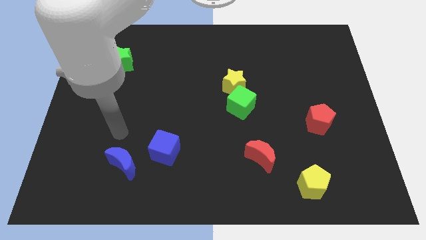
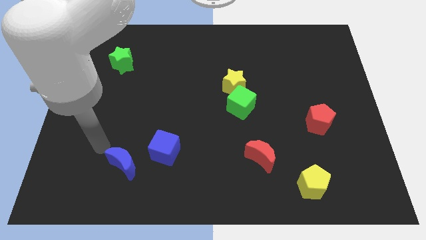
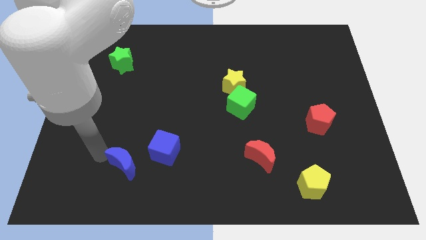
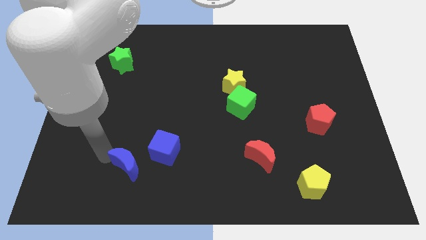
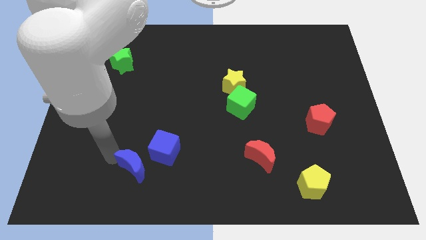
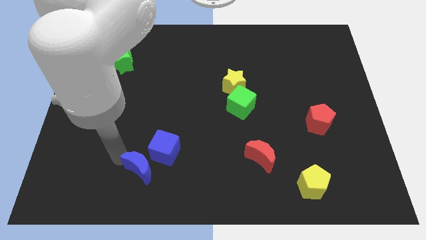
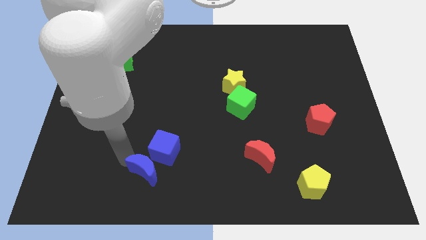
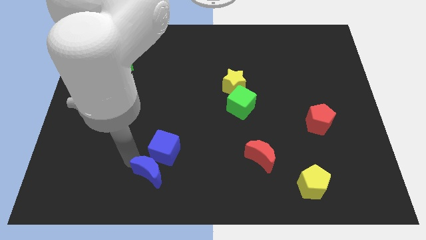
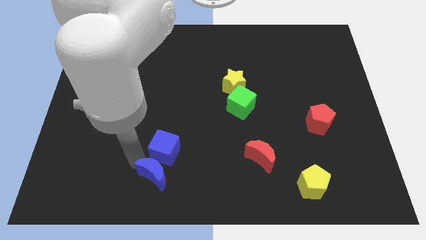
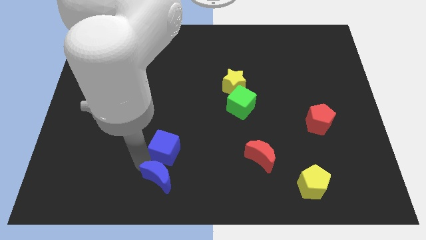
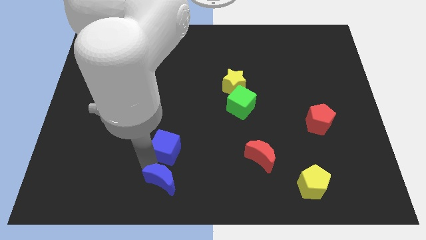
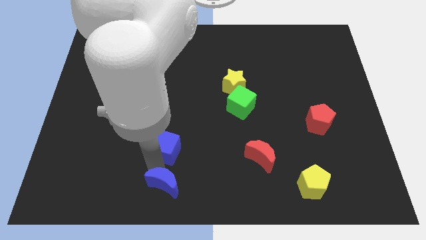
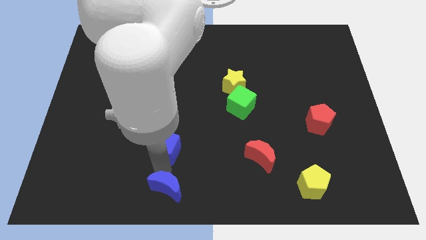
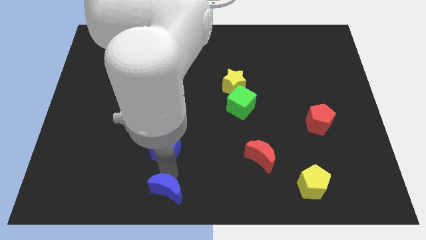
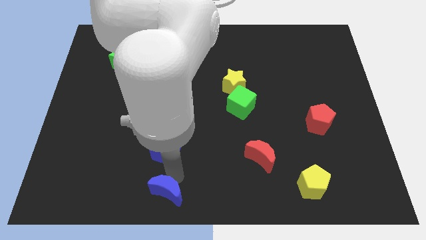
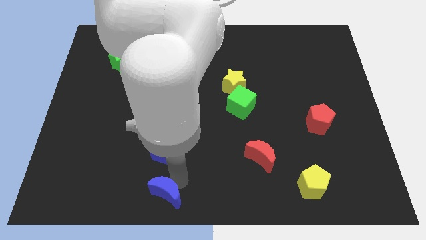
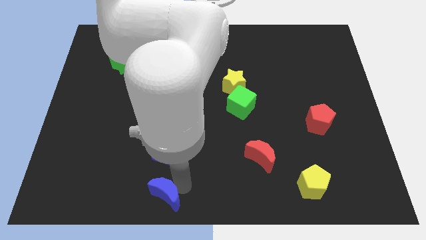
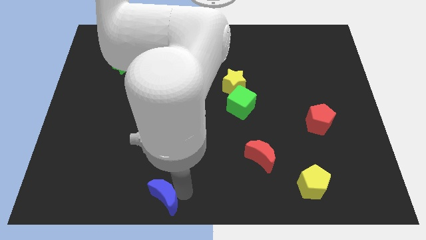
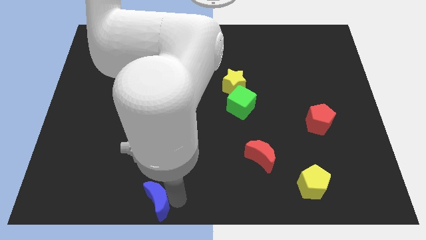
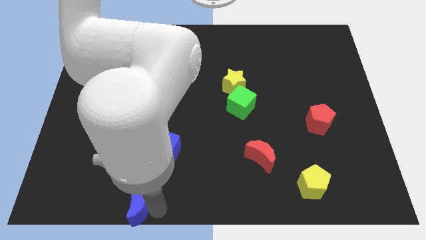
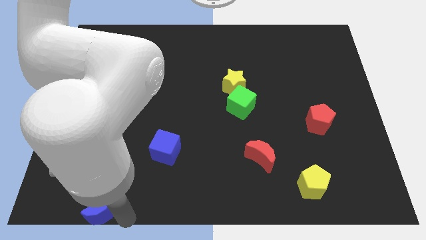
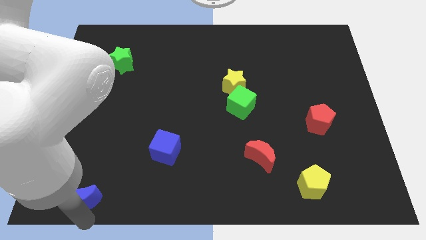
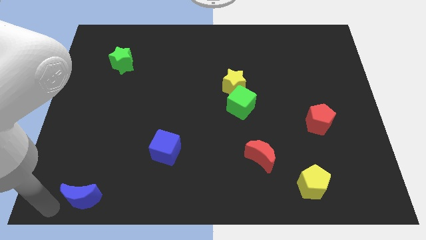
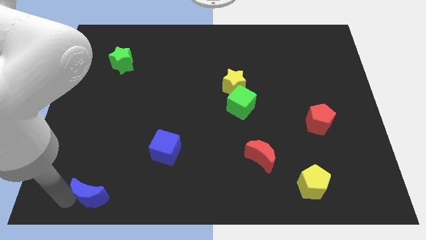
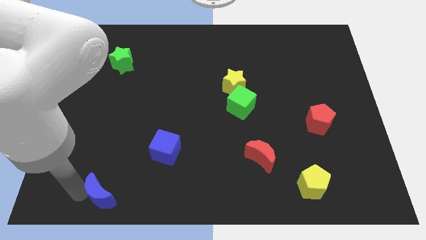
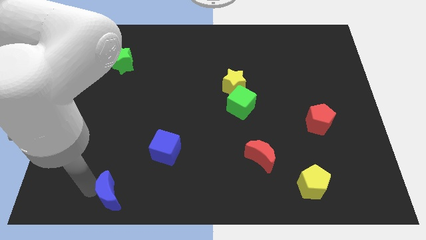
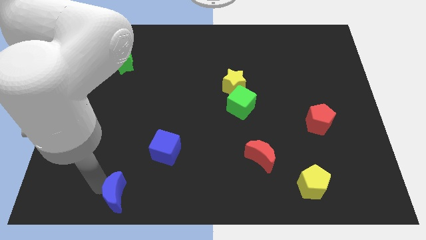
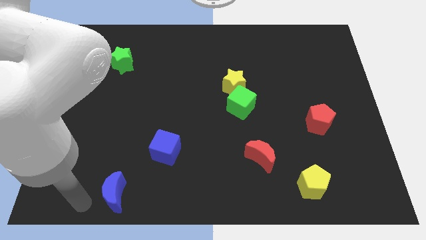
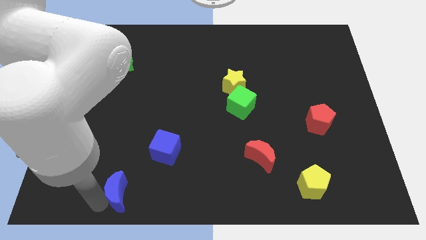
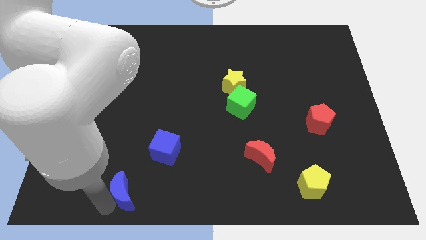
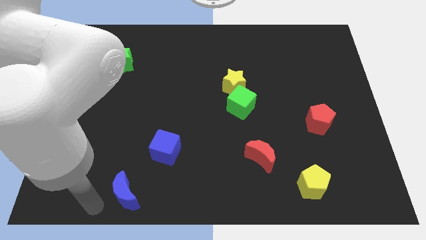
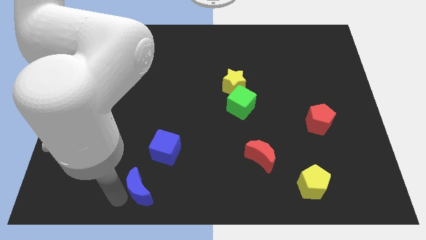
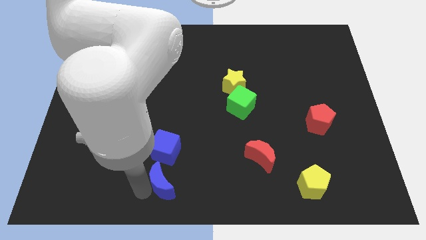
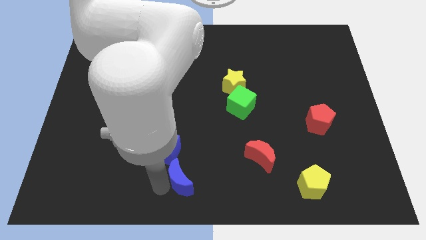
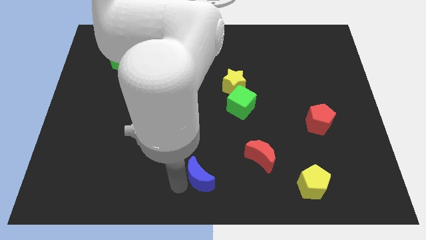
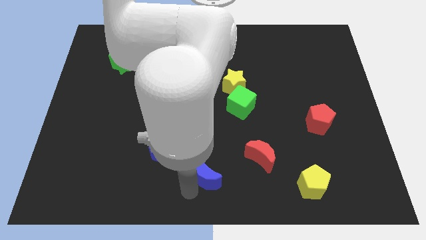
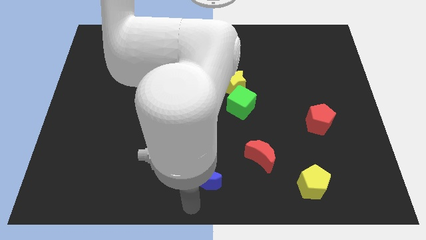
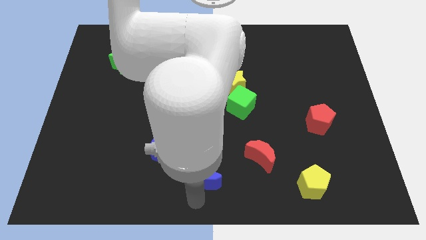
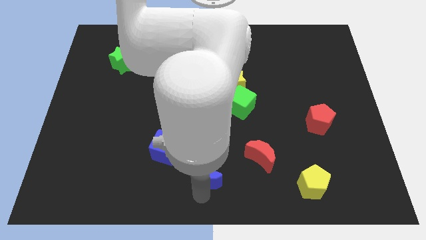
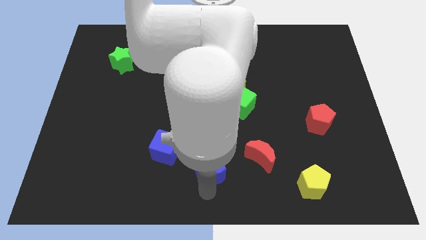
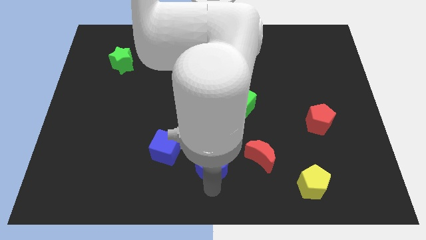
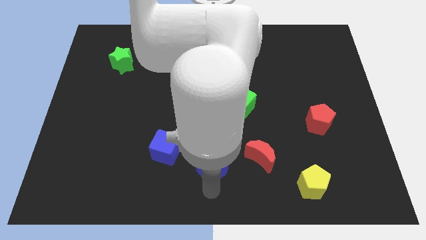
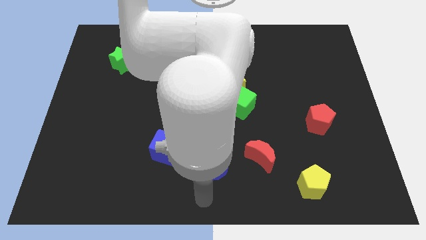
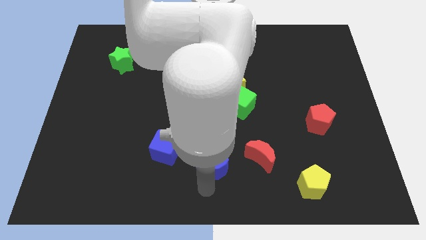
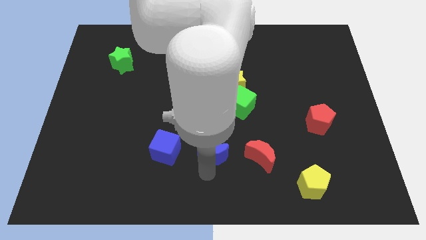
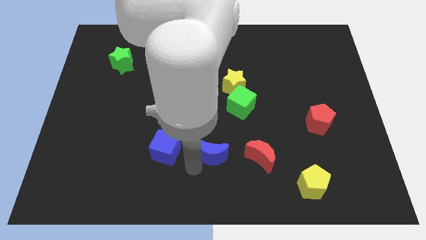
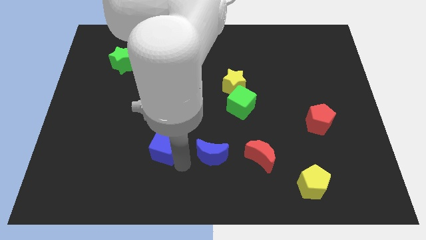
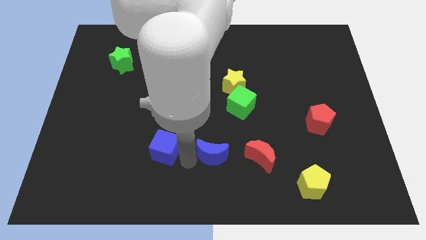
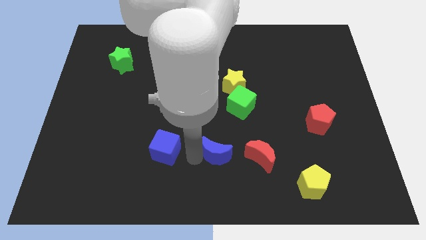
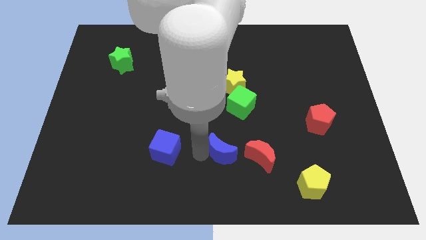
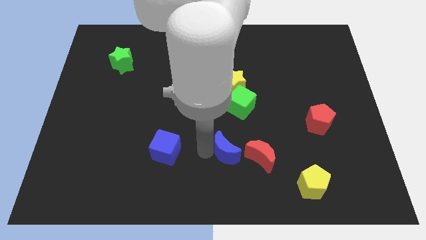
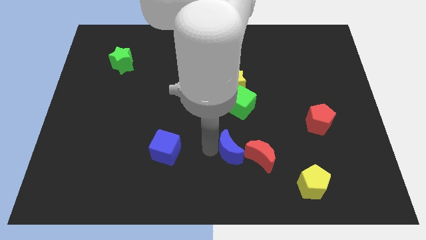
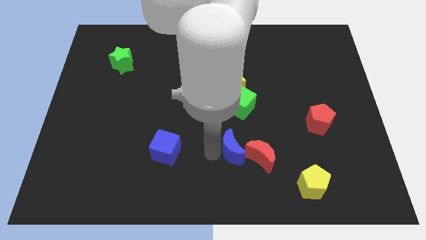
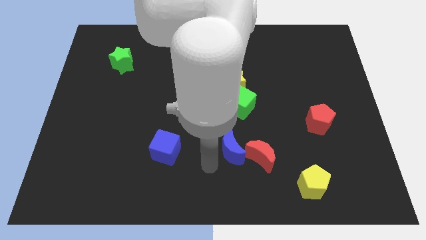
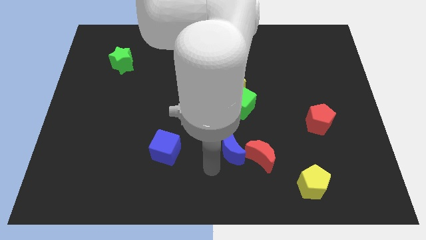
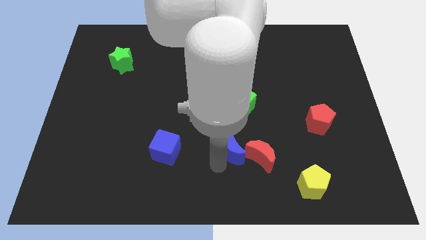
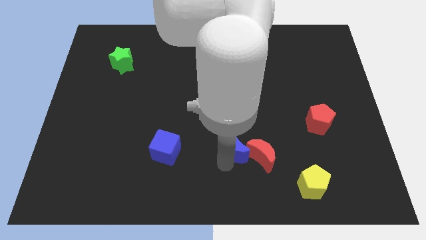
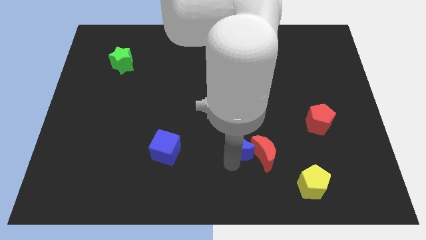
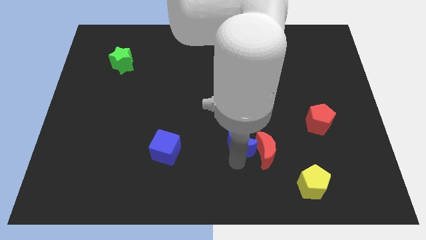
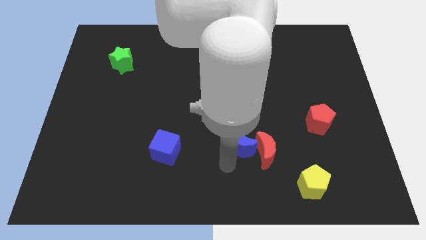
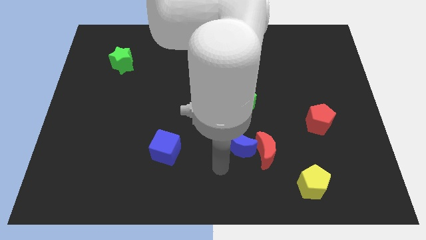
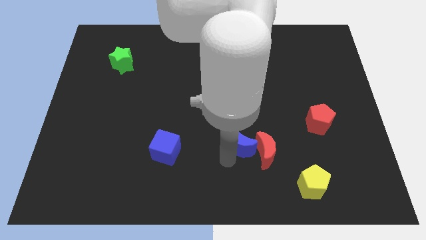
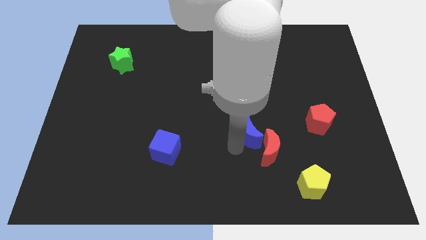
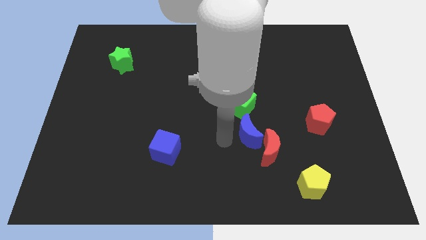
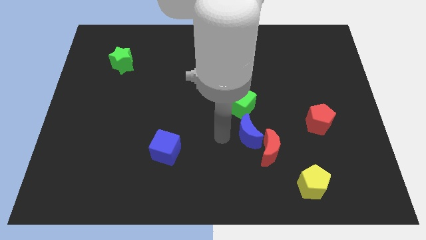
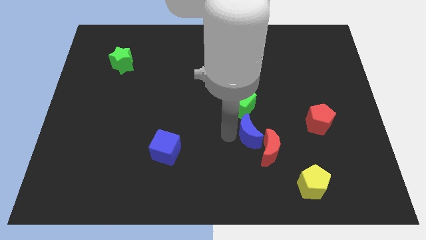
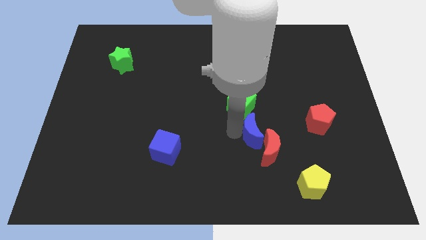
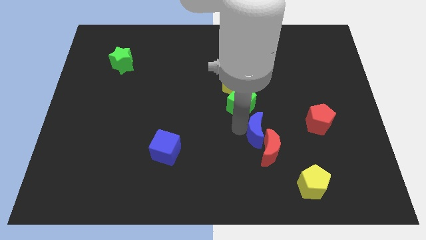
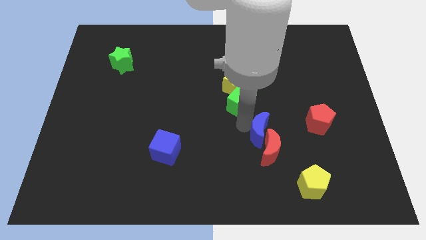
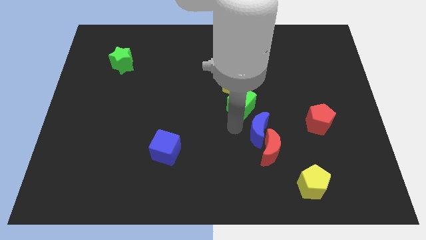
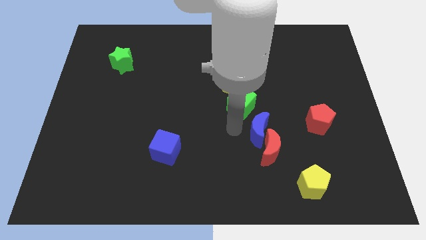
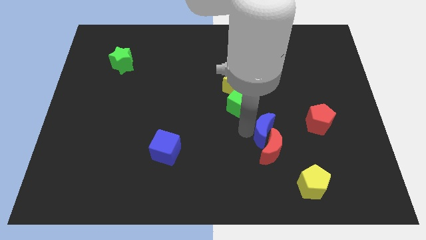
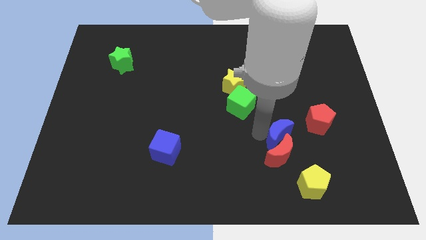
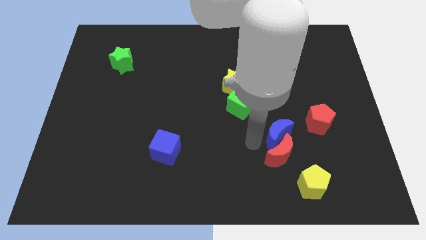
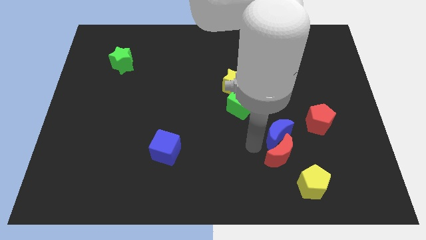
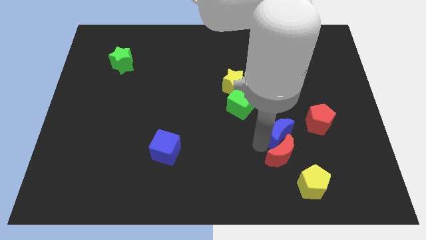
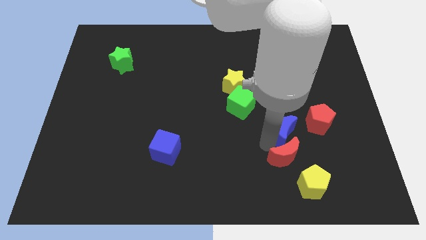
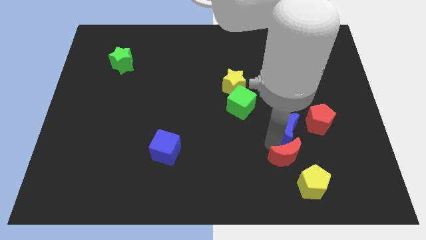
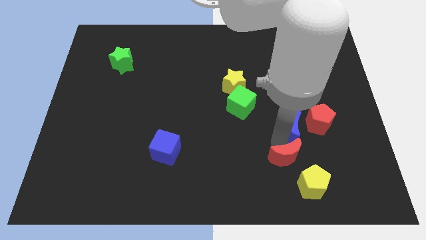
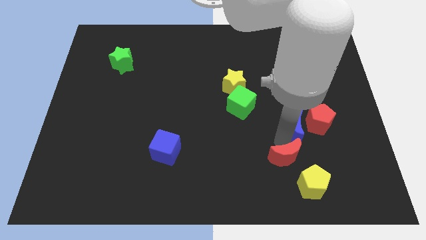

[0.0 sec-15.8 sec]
push the blue moon to the red pentagon
